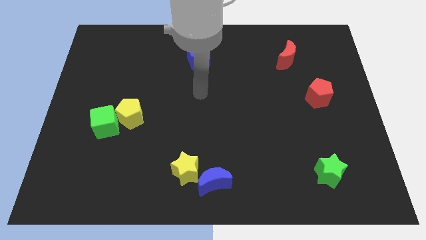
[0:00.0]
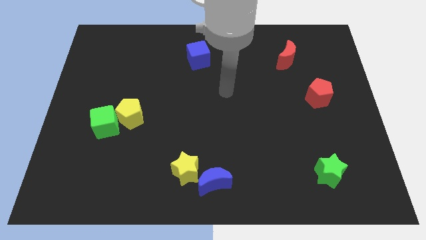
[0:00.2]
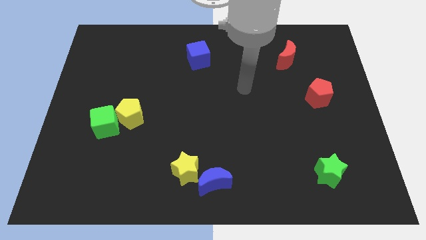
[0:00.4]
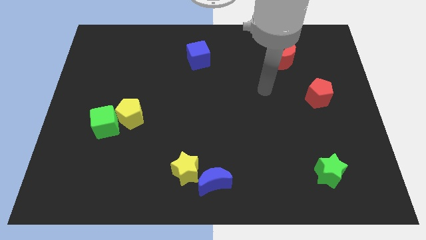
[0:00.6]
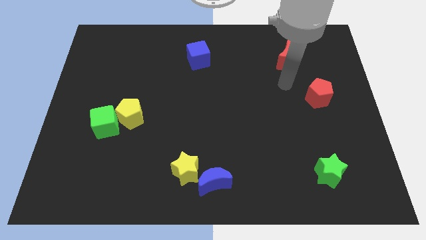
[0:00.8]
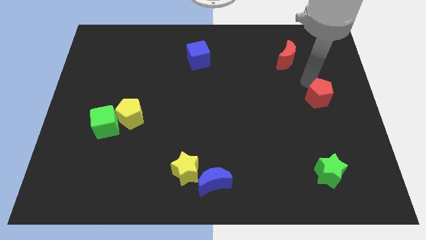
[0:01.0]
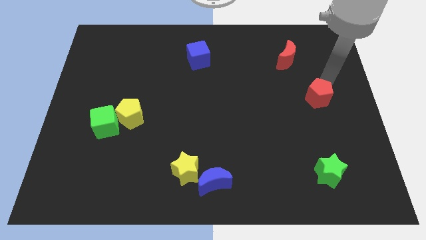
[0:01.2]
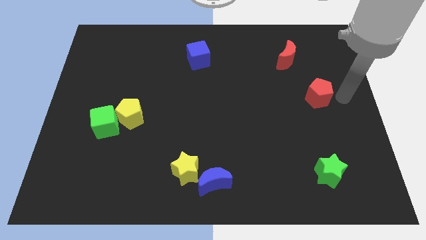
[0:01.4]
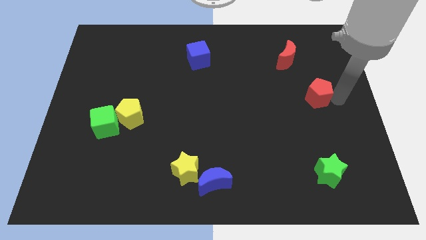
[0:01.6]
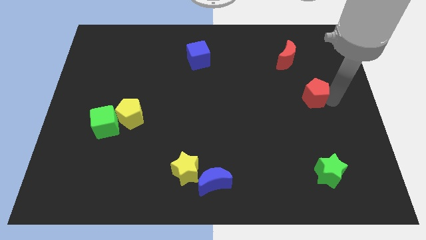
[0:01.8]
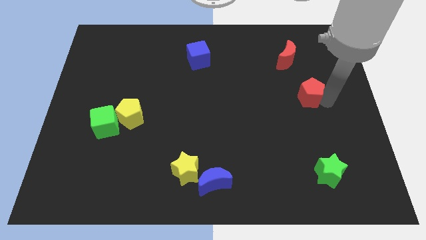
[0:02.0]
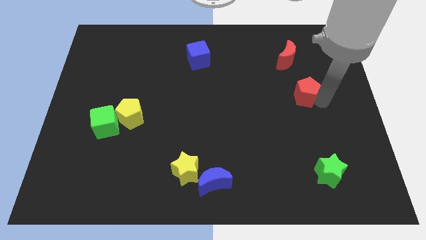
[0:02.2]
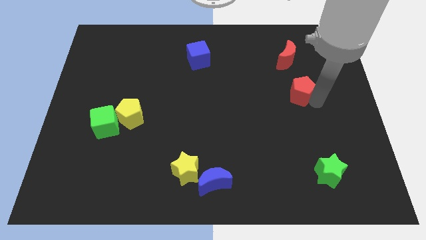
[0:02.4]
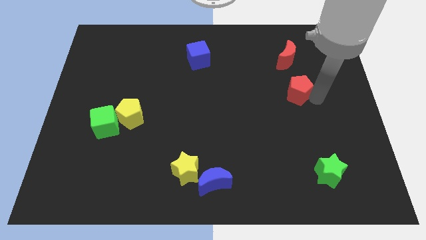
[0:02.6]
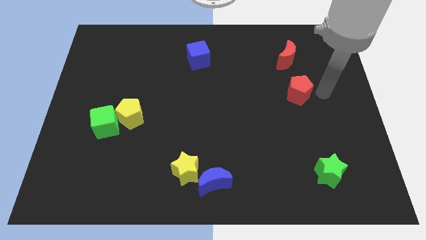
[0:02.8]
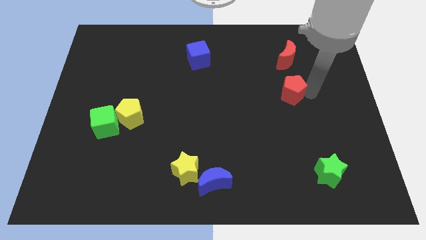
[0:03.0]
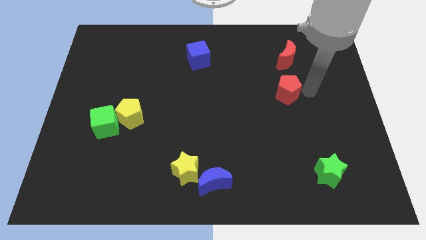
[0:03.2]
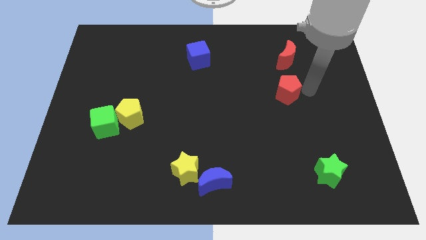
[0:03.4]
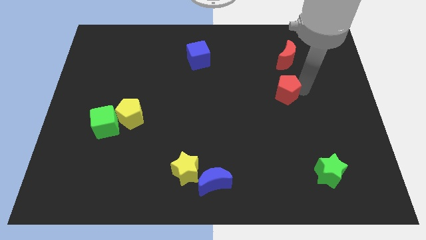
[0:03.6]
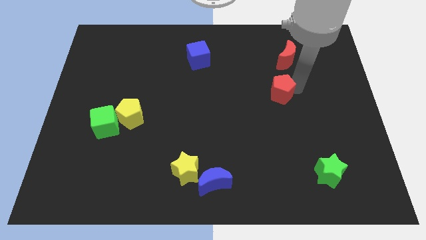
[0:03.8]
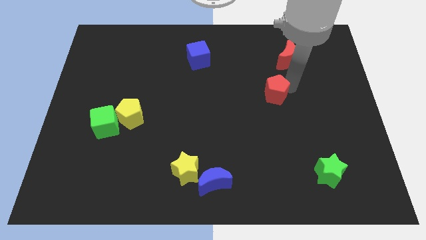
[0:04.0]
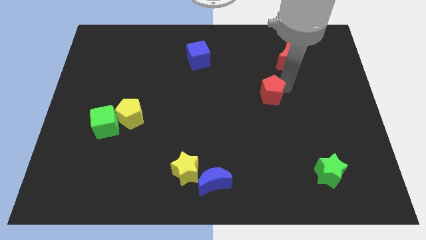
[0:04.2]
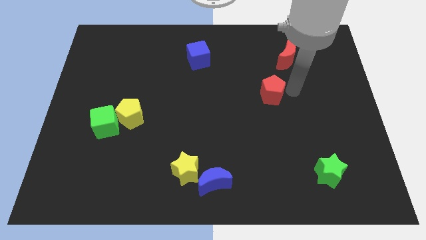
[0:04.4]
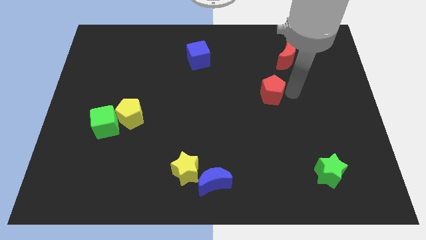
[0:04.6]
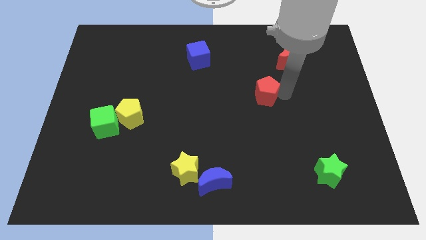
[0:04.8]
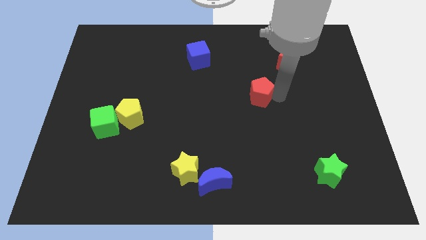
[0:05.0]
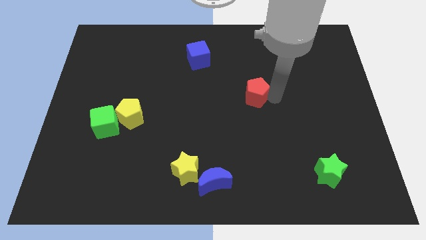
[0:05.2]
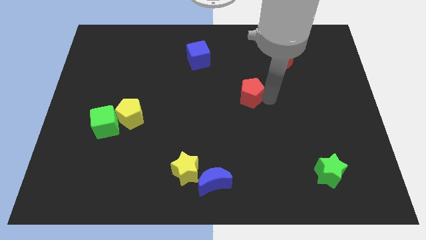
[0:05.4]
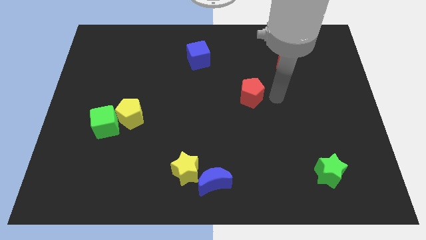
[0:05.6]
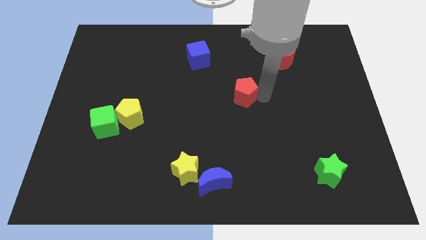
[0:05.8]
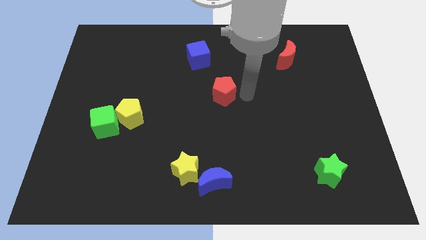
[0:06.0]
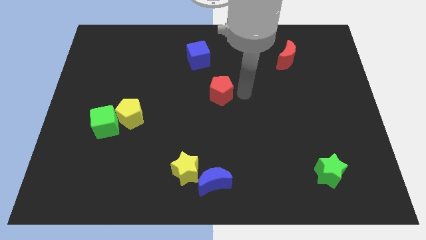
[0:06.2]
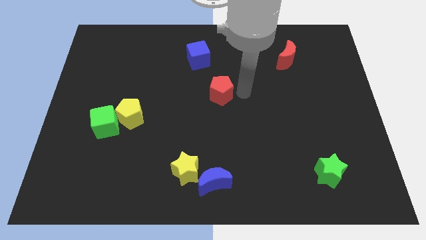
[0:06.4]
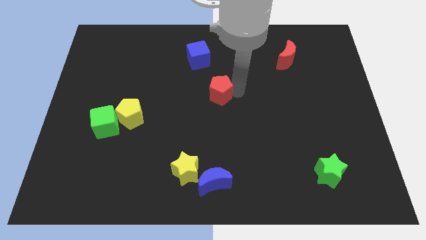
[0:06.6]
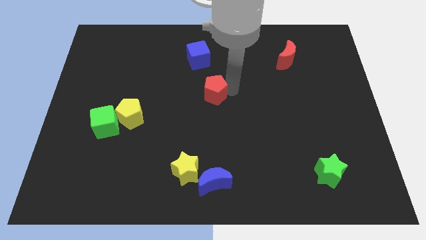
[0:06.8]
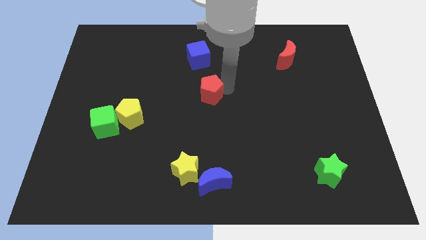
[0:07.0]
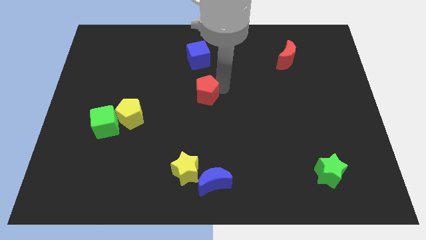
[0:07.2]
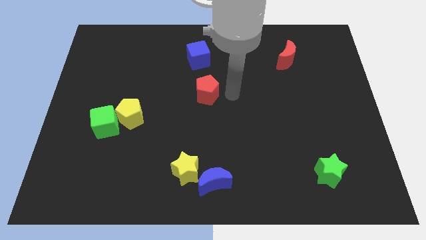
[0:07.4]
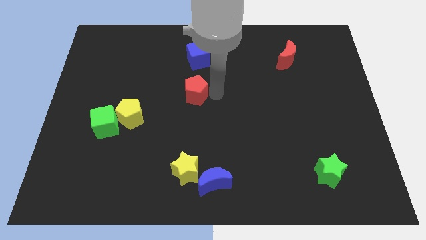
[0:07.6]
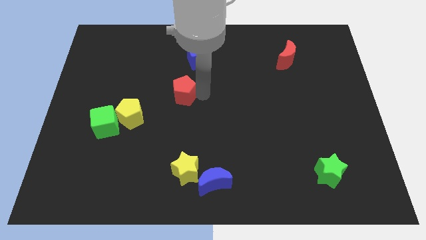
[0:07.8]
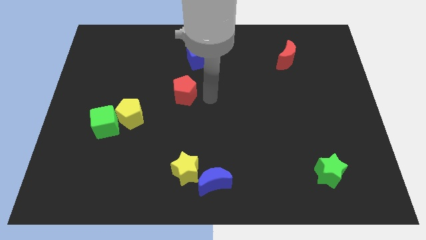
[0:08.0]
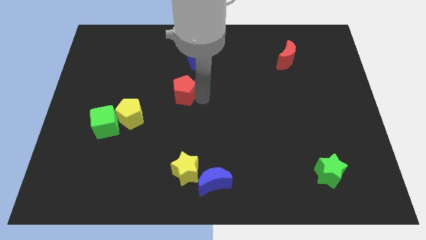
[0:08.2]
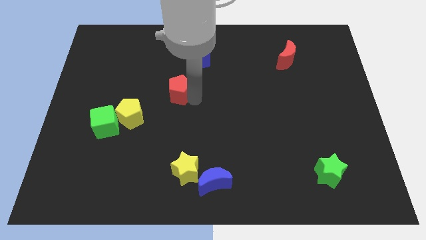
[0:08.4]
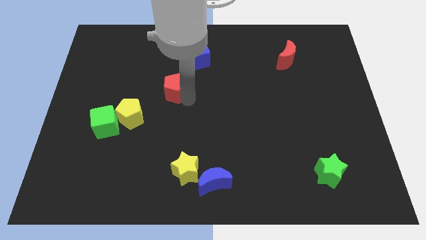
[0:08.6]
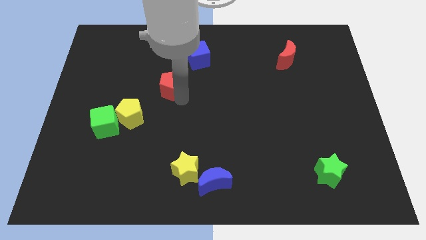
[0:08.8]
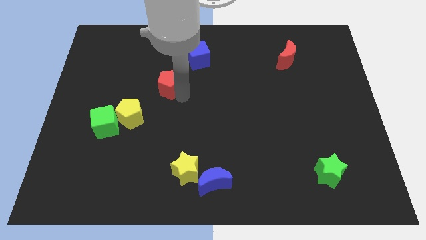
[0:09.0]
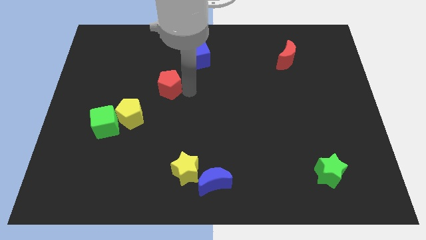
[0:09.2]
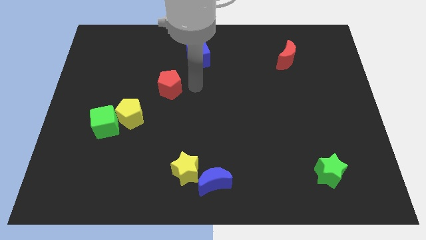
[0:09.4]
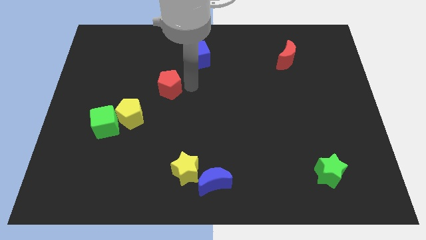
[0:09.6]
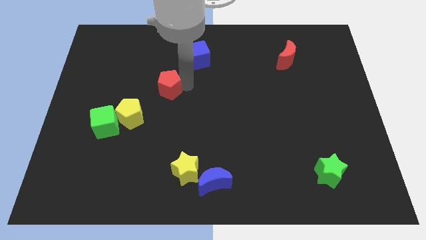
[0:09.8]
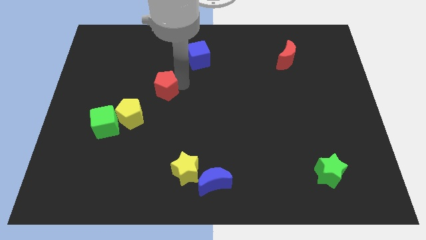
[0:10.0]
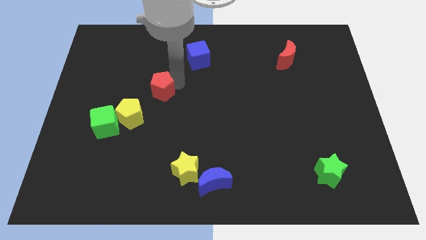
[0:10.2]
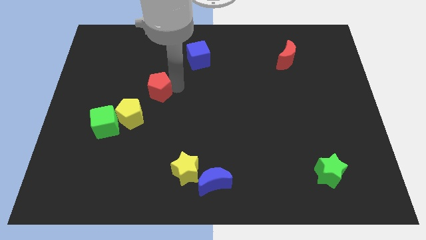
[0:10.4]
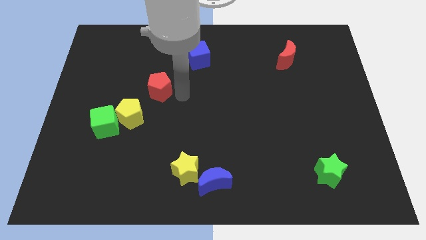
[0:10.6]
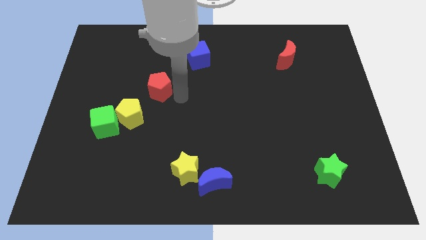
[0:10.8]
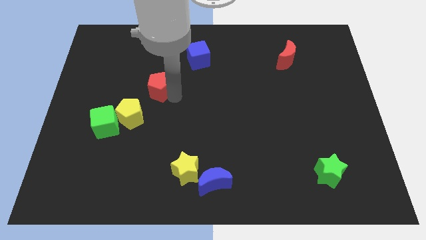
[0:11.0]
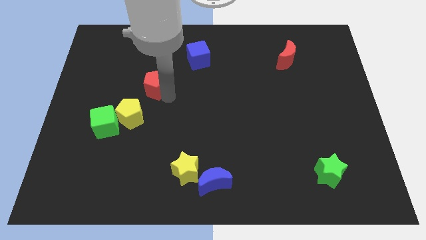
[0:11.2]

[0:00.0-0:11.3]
push the red pentagon to the top of the yellow pentagon

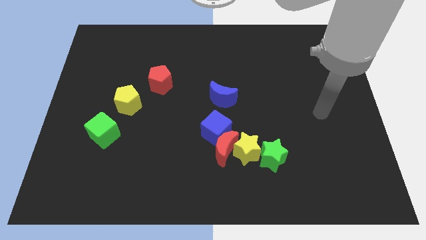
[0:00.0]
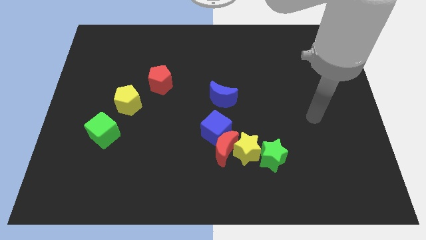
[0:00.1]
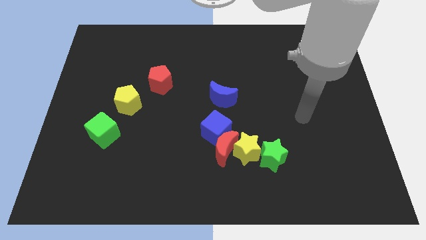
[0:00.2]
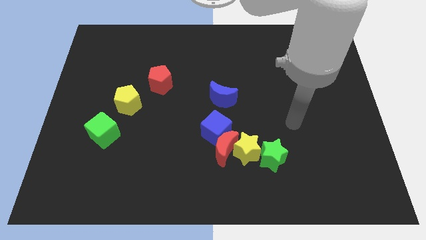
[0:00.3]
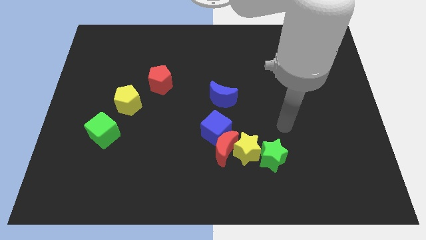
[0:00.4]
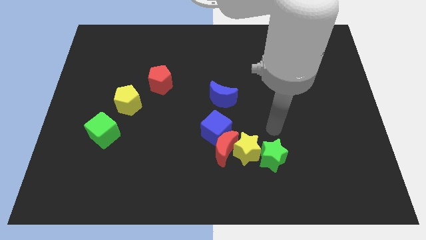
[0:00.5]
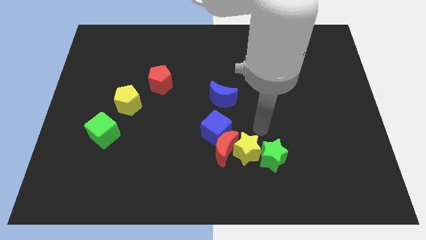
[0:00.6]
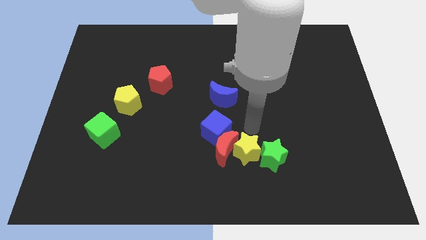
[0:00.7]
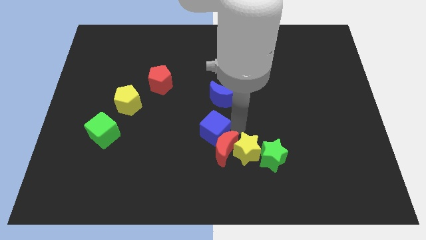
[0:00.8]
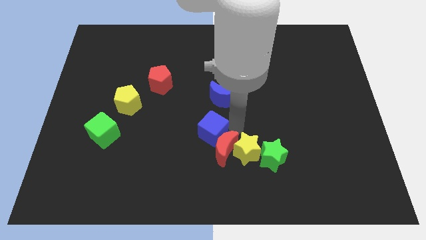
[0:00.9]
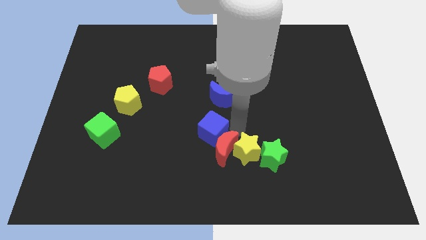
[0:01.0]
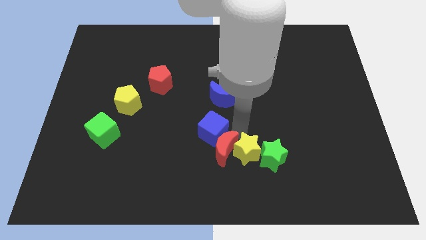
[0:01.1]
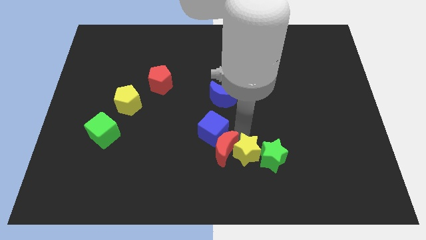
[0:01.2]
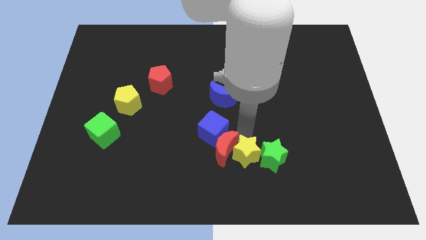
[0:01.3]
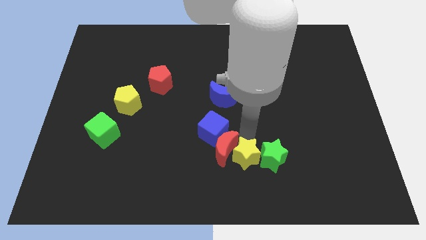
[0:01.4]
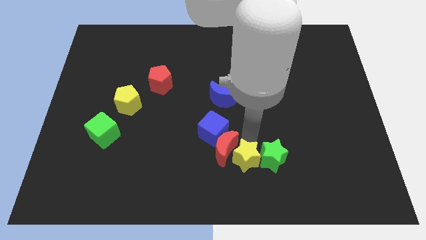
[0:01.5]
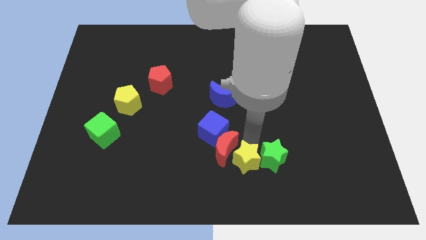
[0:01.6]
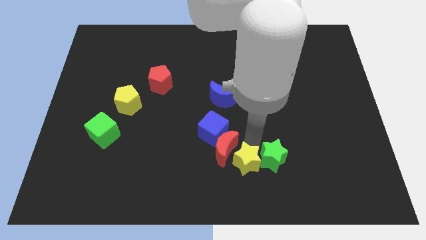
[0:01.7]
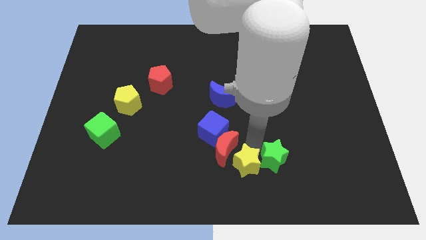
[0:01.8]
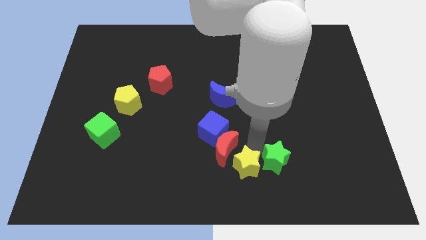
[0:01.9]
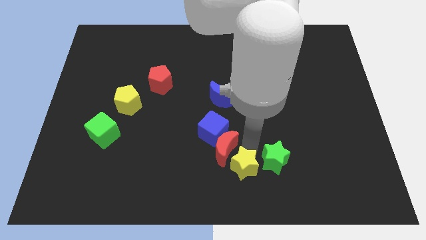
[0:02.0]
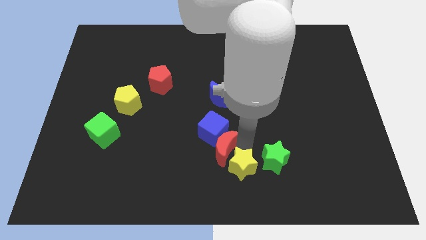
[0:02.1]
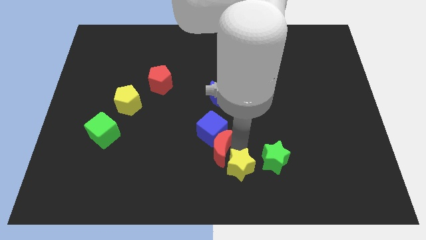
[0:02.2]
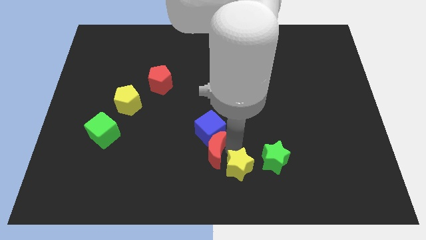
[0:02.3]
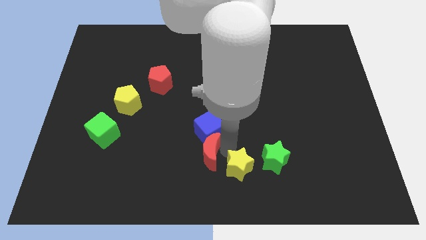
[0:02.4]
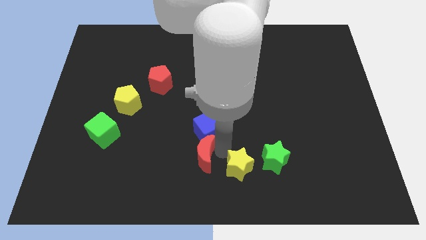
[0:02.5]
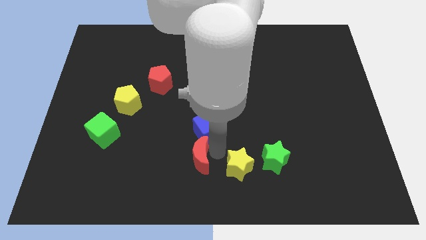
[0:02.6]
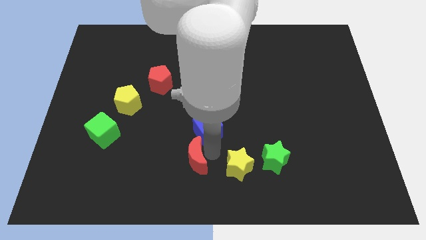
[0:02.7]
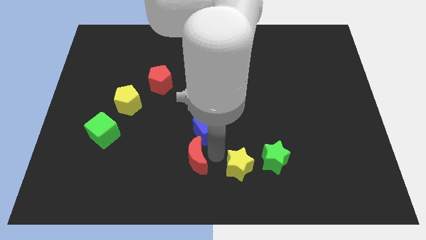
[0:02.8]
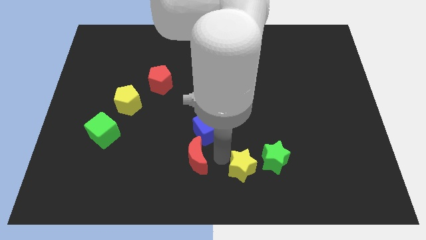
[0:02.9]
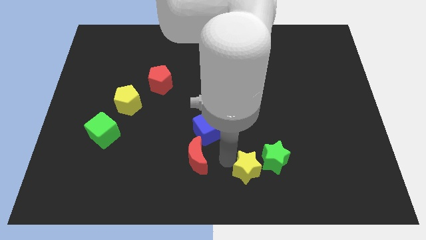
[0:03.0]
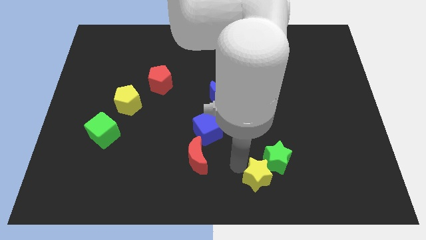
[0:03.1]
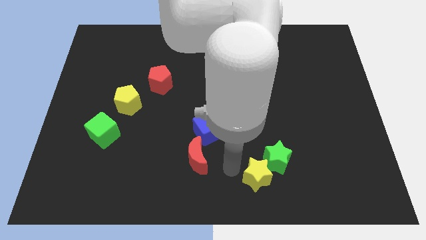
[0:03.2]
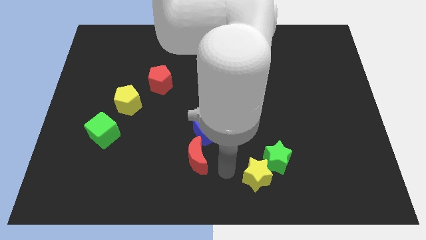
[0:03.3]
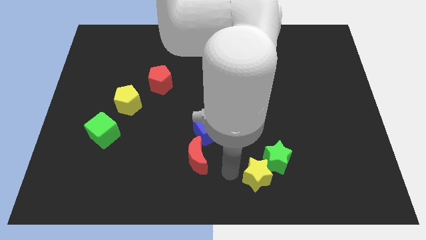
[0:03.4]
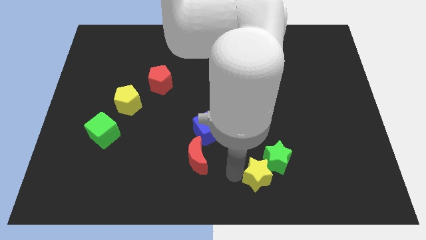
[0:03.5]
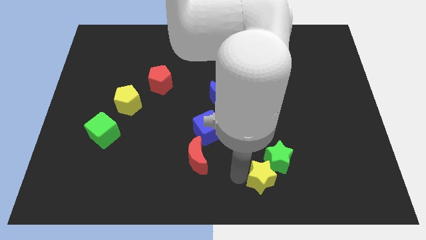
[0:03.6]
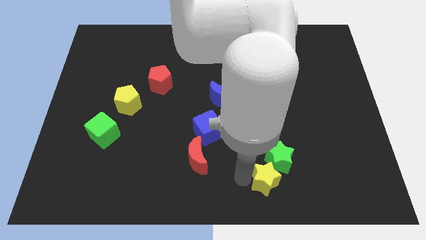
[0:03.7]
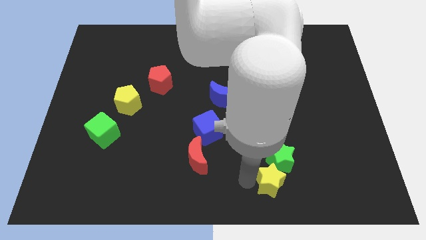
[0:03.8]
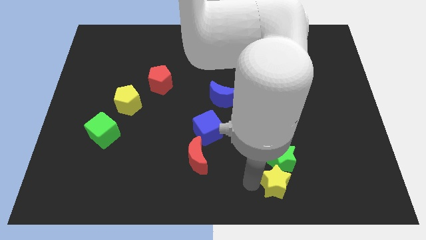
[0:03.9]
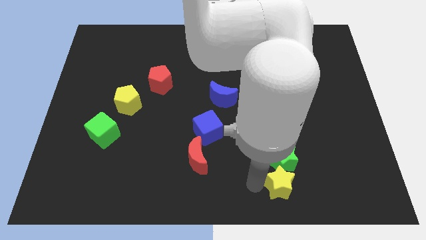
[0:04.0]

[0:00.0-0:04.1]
put the yellow star to the bottom right of the green star
